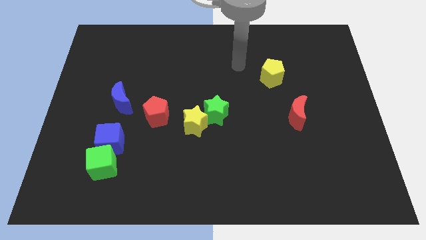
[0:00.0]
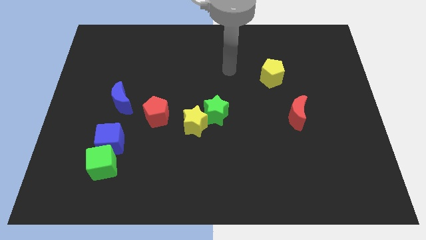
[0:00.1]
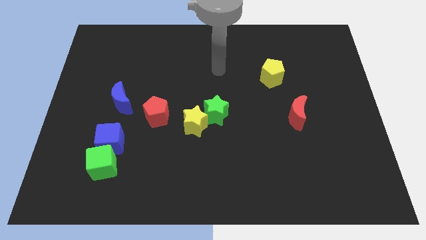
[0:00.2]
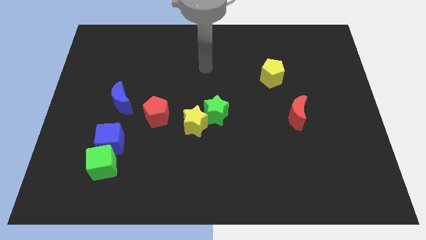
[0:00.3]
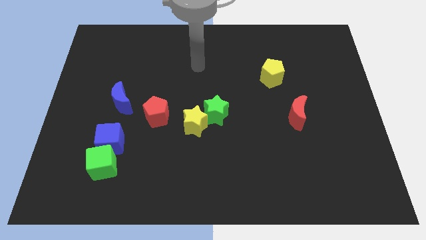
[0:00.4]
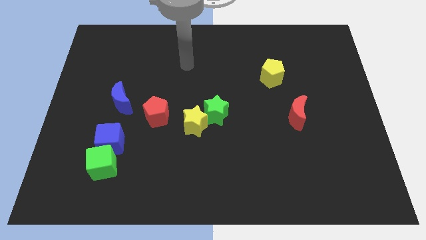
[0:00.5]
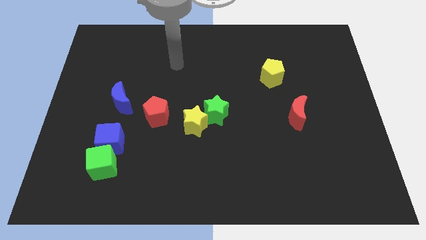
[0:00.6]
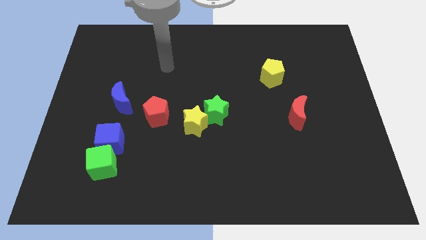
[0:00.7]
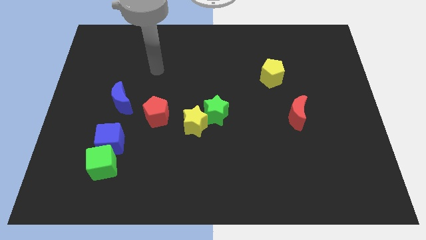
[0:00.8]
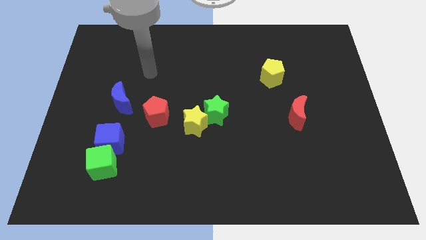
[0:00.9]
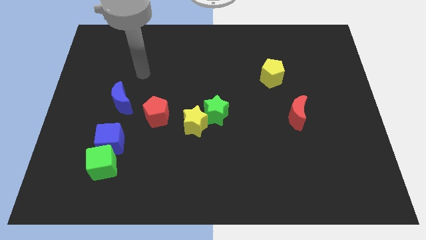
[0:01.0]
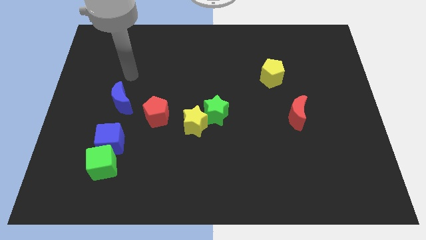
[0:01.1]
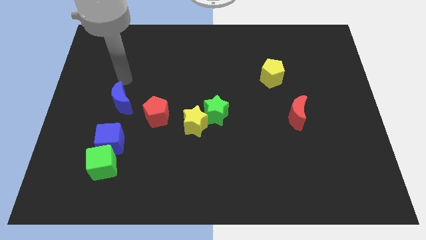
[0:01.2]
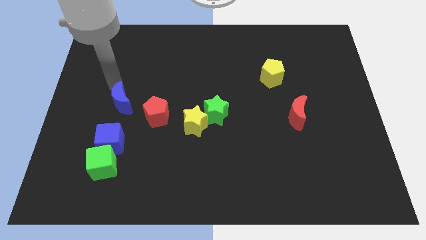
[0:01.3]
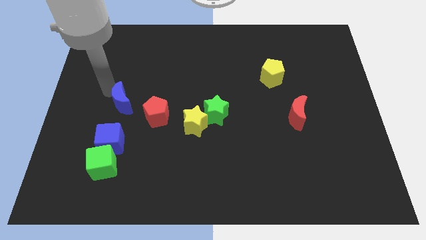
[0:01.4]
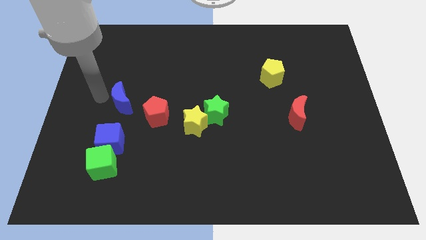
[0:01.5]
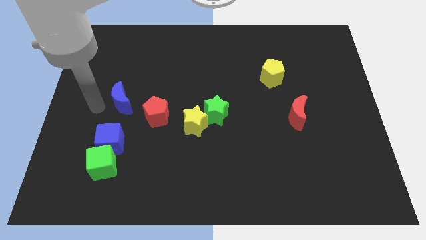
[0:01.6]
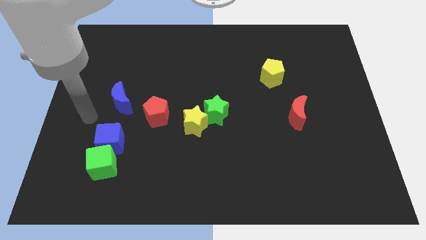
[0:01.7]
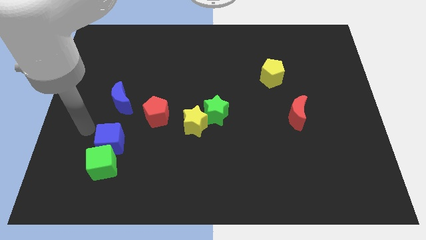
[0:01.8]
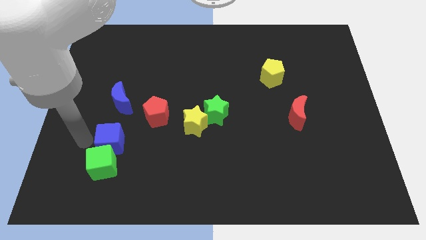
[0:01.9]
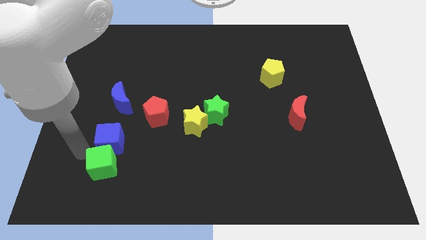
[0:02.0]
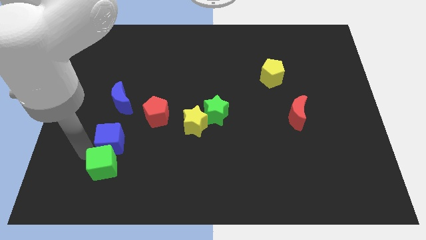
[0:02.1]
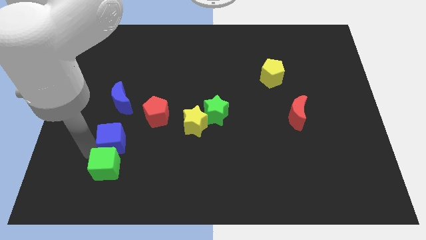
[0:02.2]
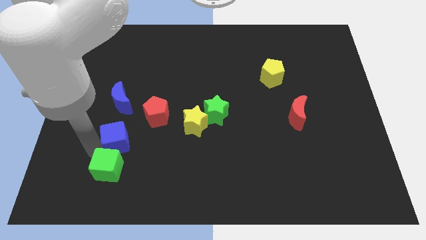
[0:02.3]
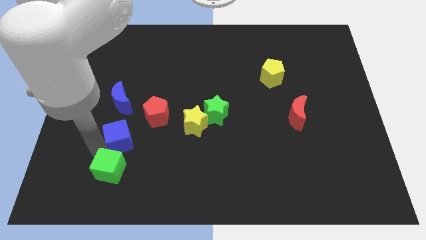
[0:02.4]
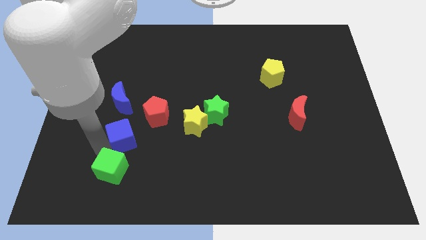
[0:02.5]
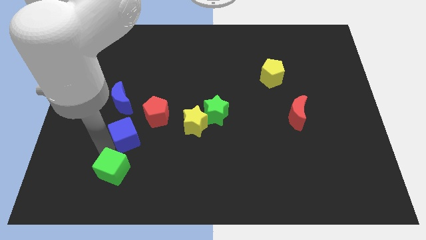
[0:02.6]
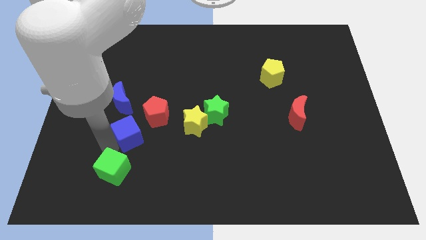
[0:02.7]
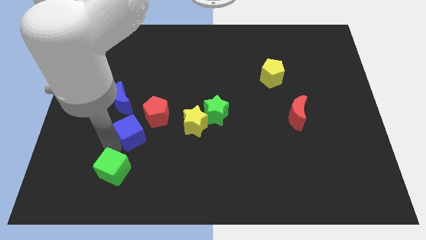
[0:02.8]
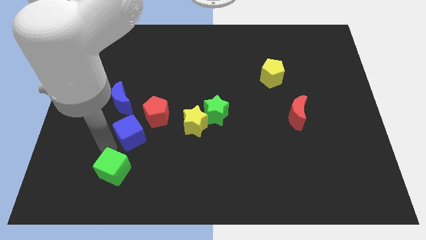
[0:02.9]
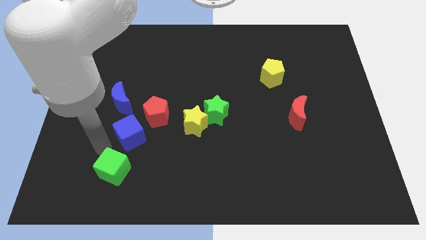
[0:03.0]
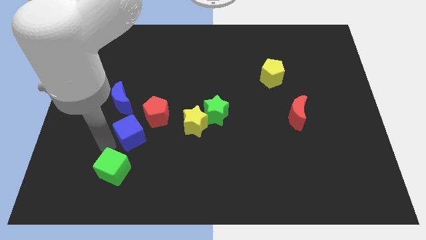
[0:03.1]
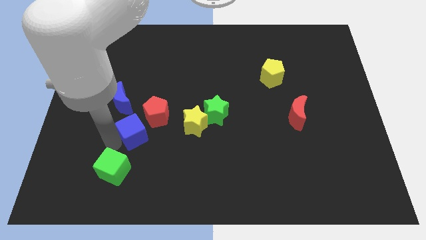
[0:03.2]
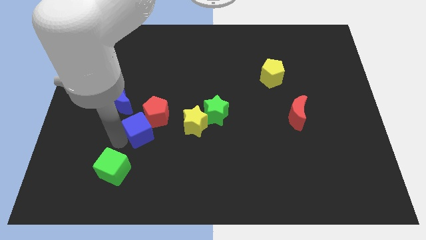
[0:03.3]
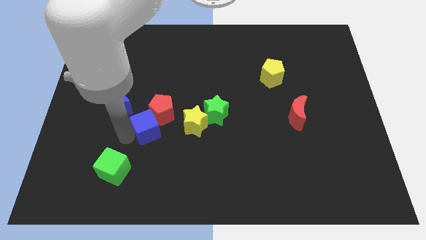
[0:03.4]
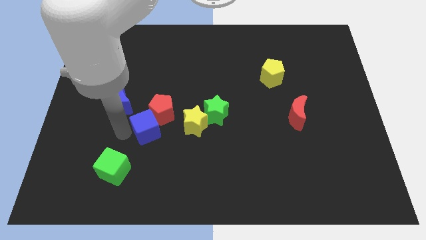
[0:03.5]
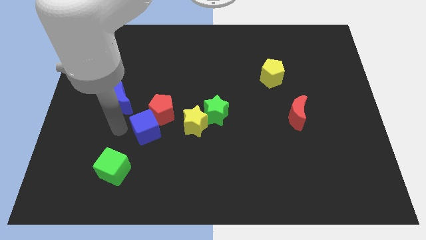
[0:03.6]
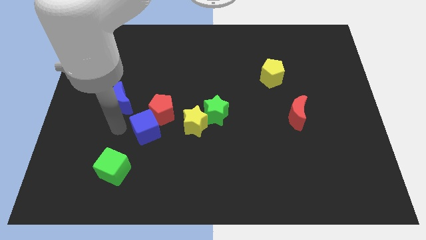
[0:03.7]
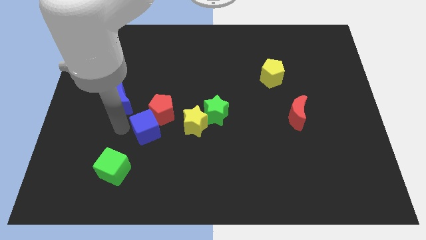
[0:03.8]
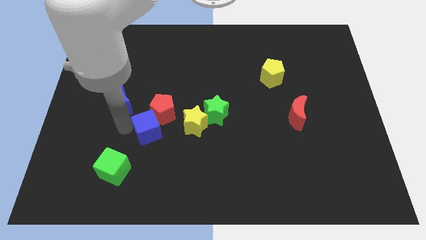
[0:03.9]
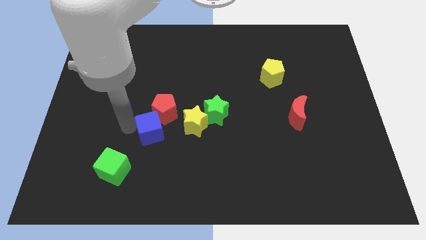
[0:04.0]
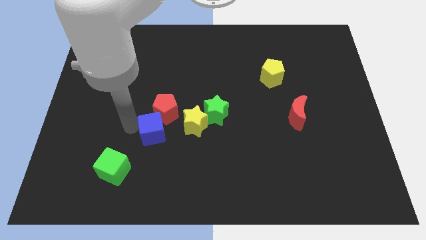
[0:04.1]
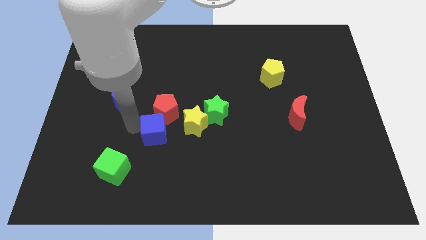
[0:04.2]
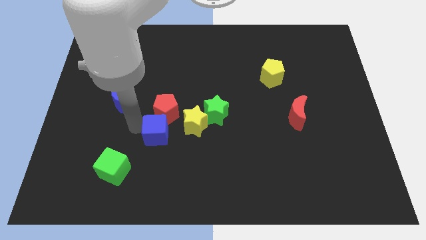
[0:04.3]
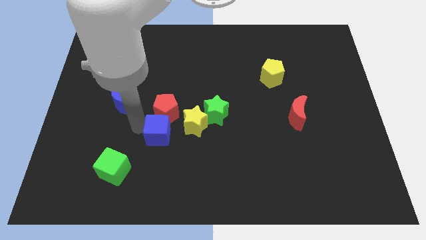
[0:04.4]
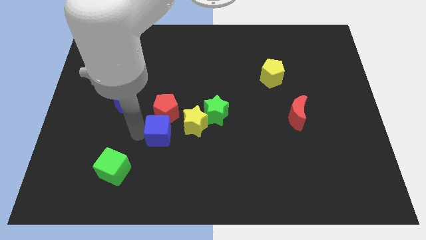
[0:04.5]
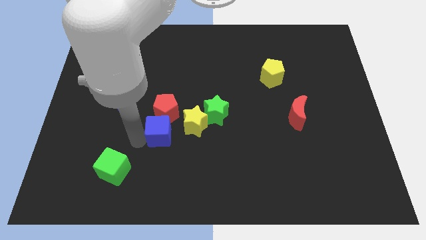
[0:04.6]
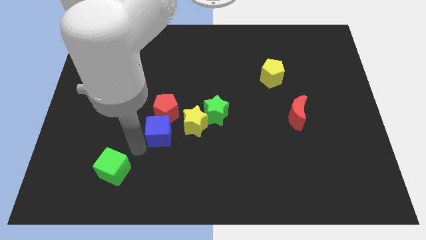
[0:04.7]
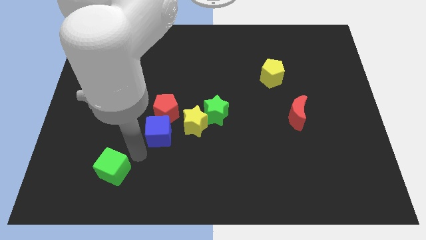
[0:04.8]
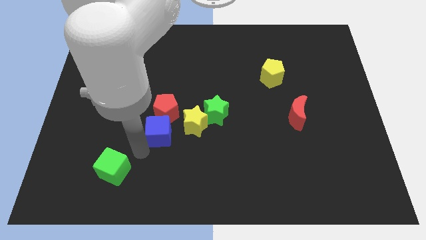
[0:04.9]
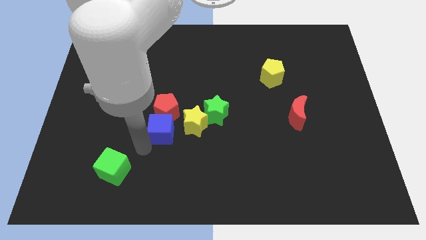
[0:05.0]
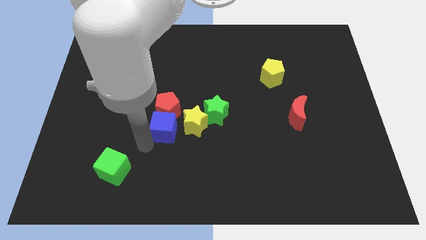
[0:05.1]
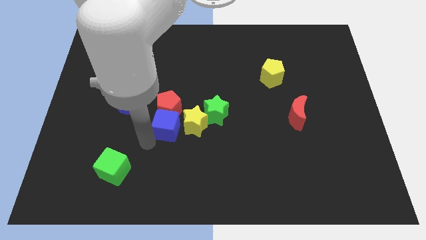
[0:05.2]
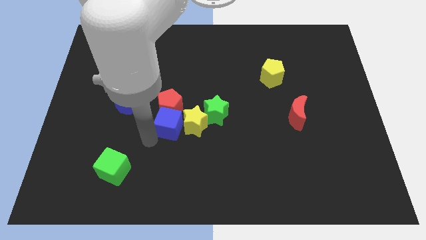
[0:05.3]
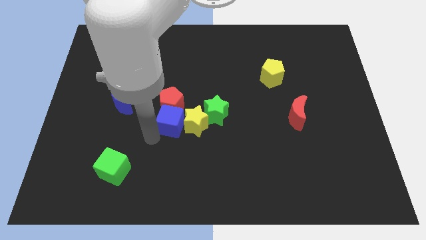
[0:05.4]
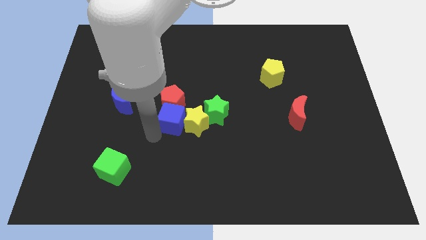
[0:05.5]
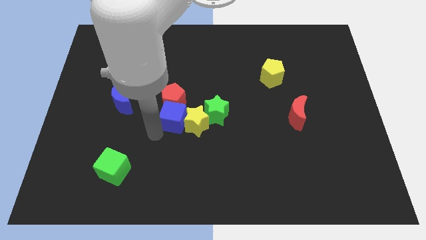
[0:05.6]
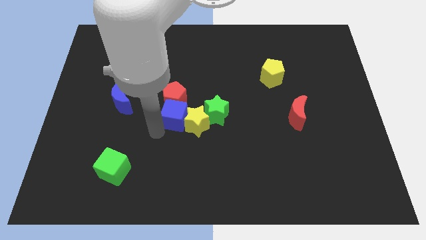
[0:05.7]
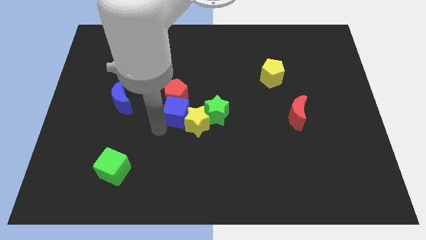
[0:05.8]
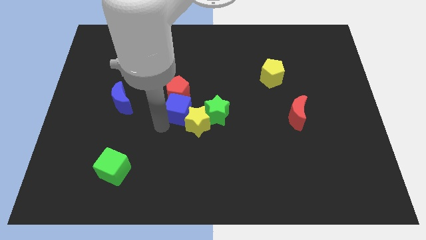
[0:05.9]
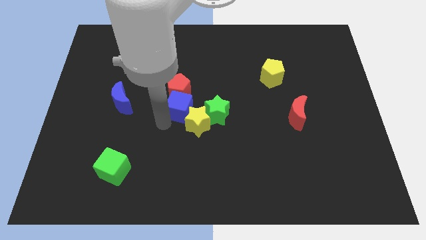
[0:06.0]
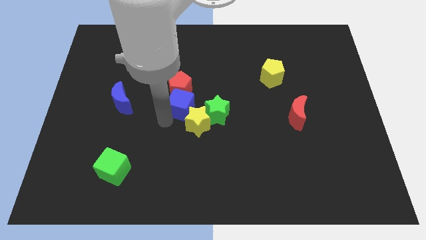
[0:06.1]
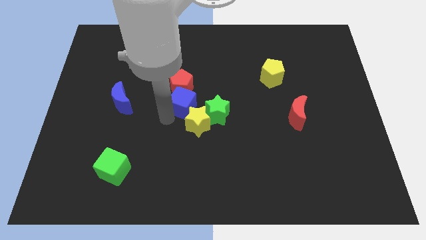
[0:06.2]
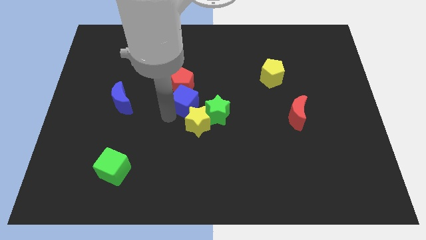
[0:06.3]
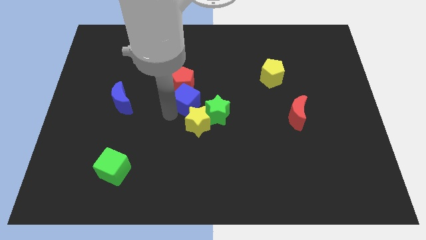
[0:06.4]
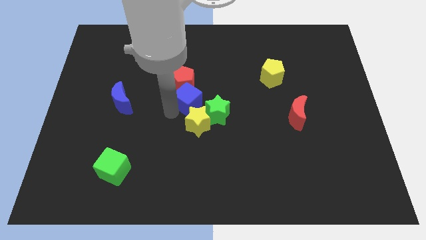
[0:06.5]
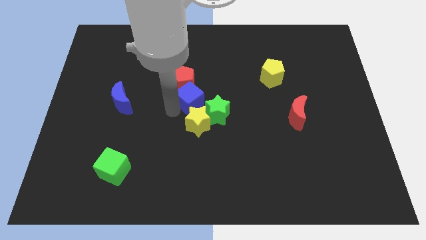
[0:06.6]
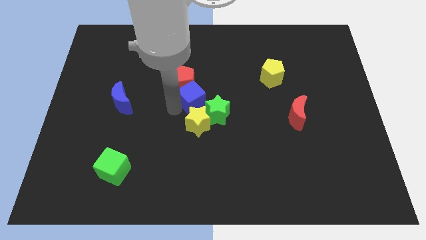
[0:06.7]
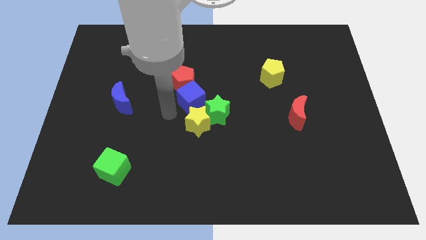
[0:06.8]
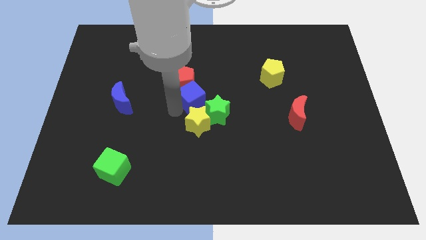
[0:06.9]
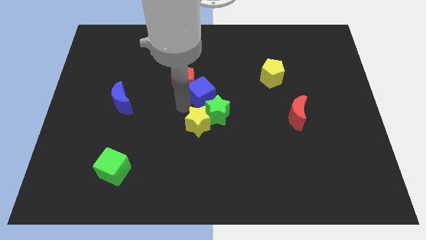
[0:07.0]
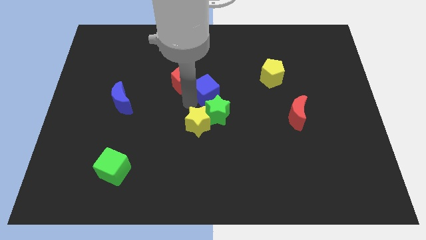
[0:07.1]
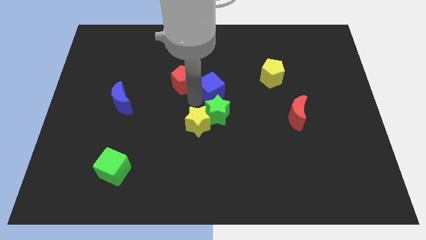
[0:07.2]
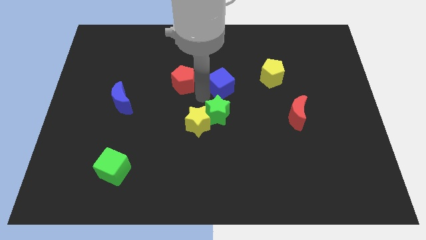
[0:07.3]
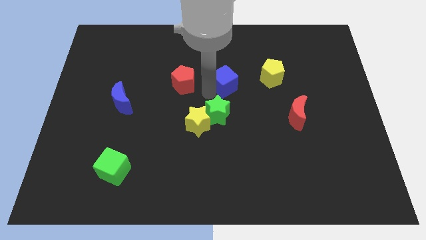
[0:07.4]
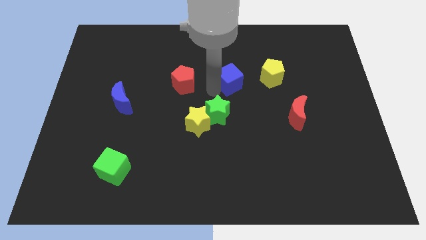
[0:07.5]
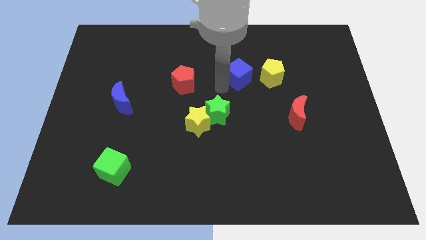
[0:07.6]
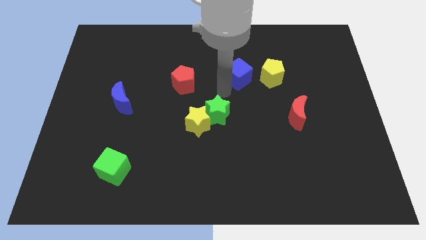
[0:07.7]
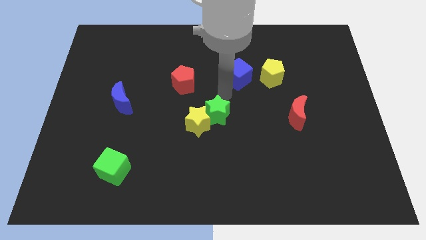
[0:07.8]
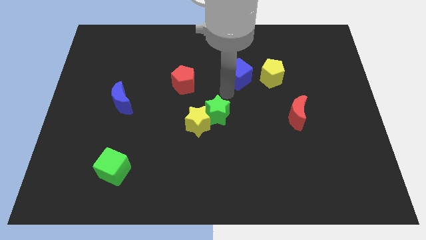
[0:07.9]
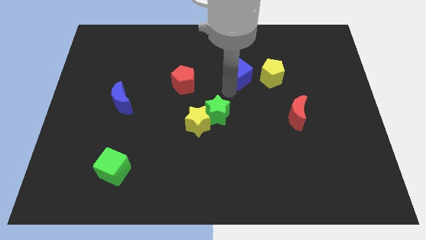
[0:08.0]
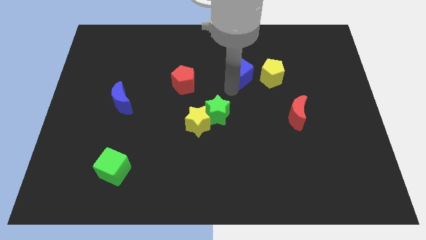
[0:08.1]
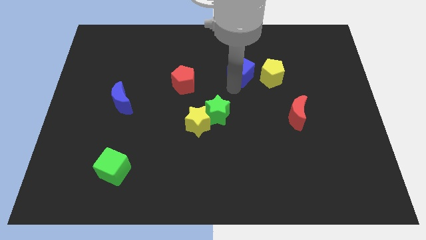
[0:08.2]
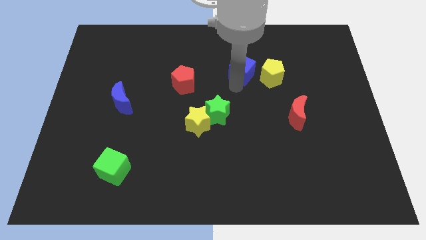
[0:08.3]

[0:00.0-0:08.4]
push the blue cube diagonally up and to the left of the yellow pentagon
